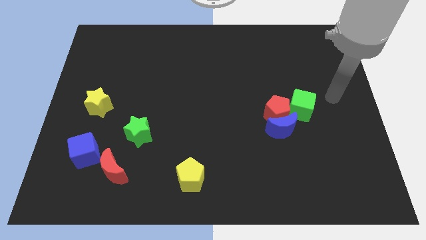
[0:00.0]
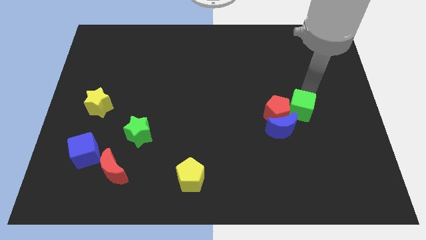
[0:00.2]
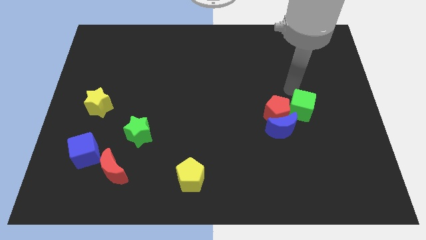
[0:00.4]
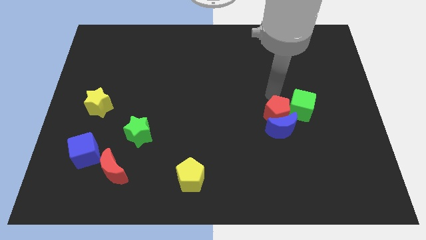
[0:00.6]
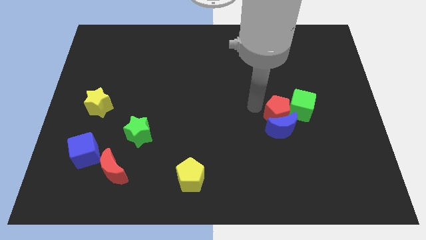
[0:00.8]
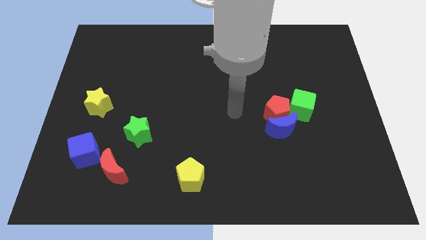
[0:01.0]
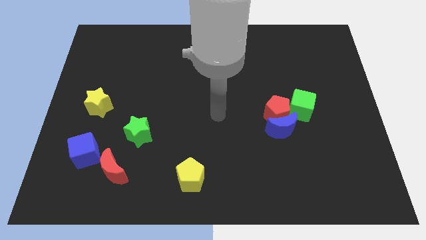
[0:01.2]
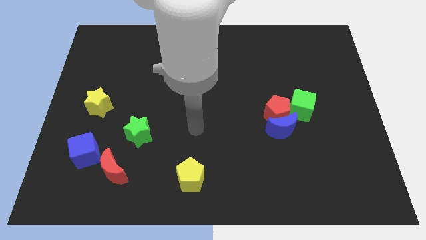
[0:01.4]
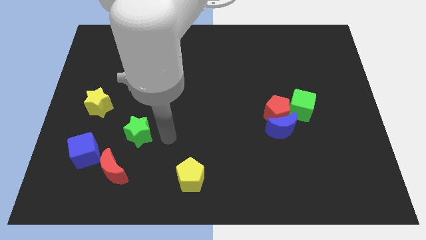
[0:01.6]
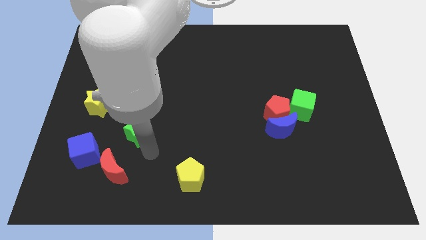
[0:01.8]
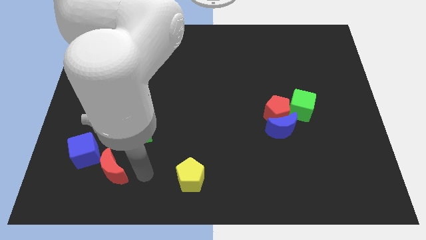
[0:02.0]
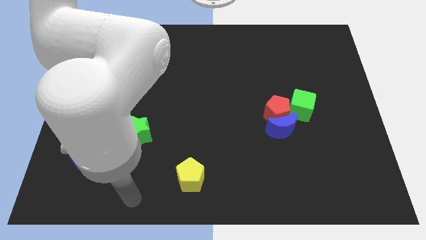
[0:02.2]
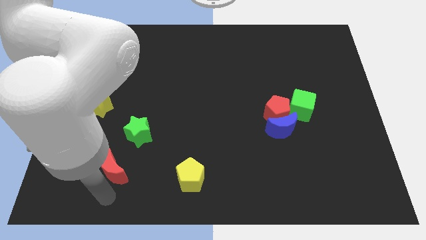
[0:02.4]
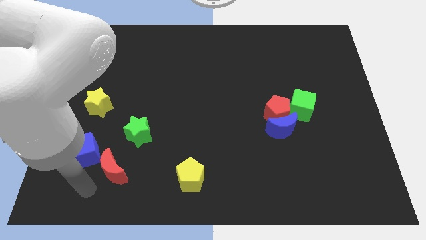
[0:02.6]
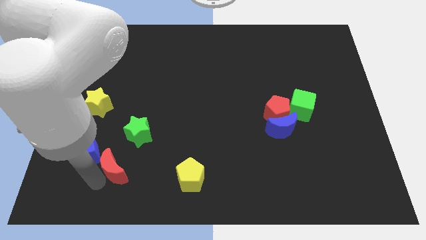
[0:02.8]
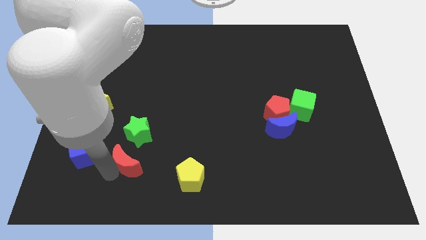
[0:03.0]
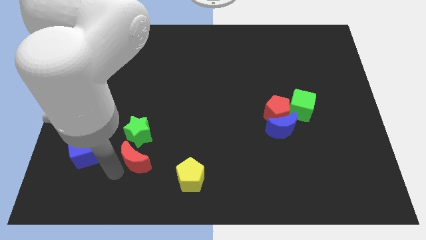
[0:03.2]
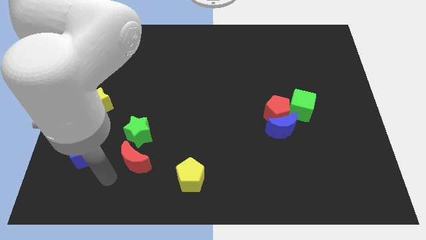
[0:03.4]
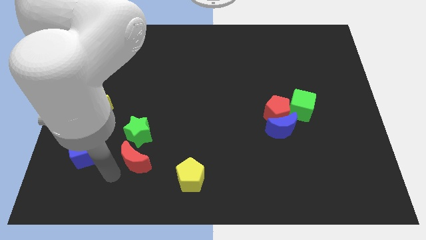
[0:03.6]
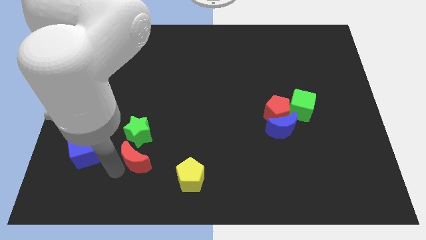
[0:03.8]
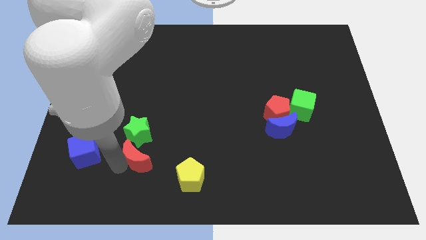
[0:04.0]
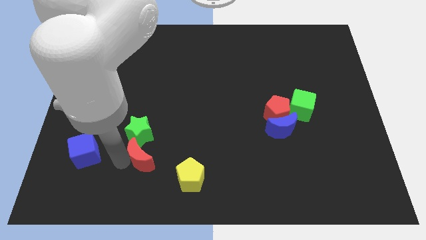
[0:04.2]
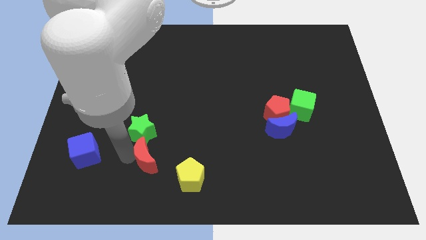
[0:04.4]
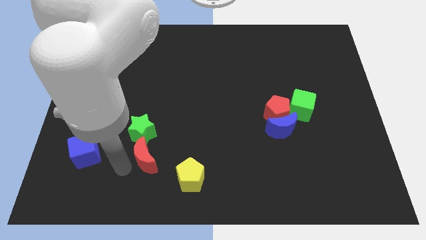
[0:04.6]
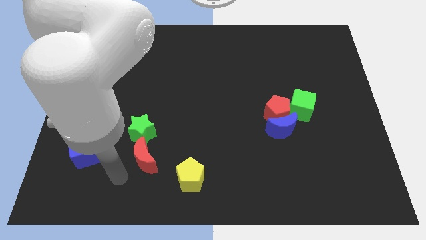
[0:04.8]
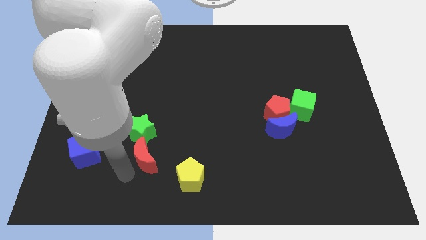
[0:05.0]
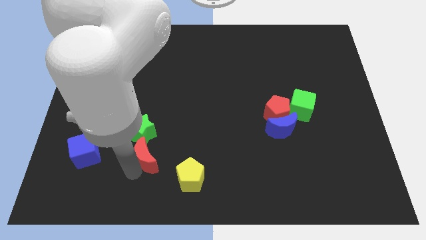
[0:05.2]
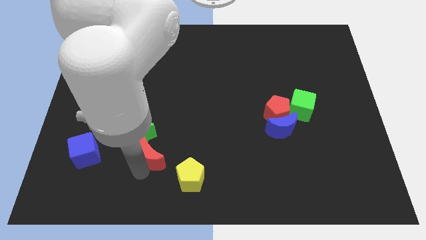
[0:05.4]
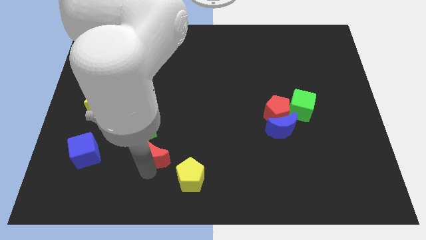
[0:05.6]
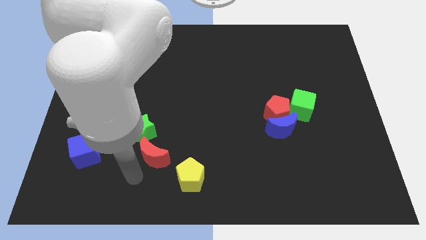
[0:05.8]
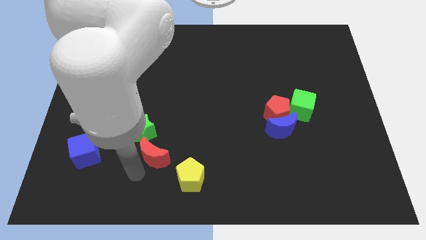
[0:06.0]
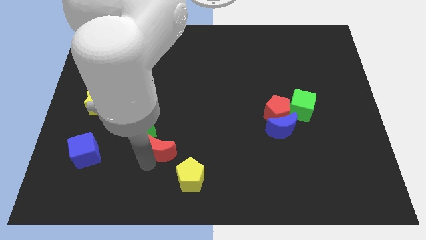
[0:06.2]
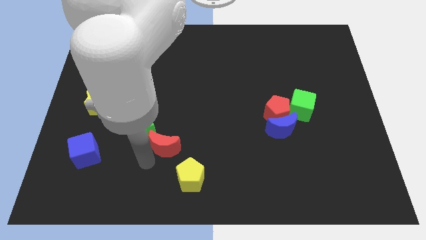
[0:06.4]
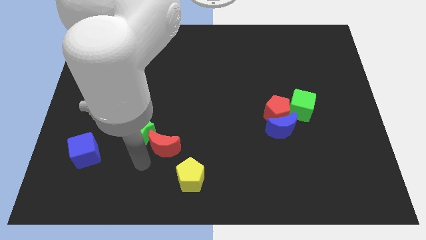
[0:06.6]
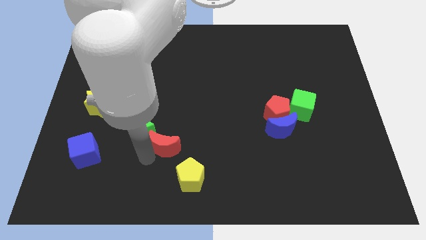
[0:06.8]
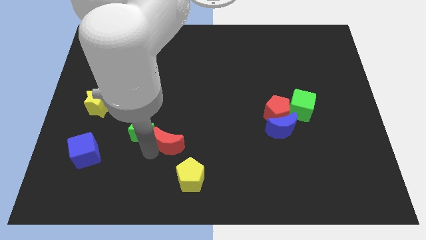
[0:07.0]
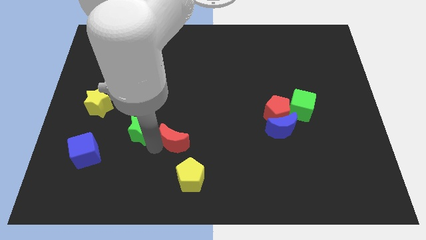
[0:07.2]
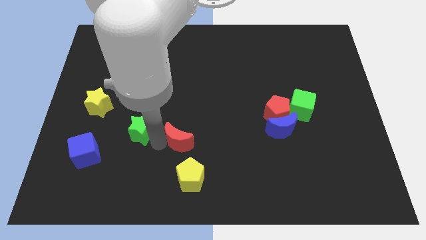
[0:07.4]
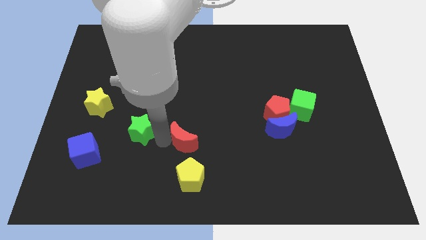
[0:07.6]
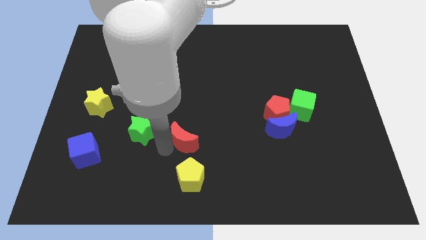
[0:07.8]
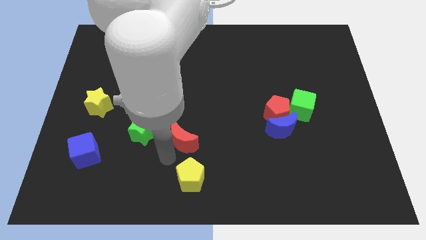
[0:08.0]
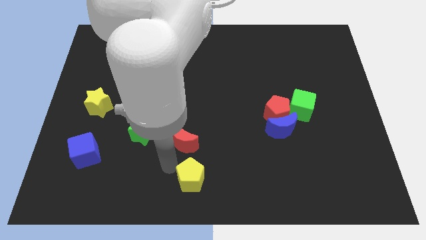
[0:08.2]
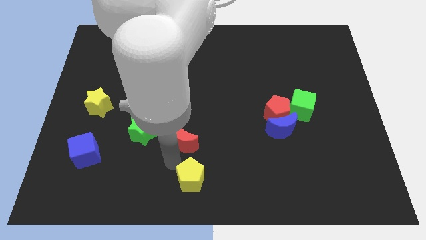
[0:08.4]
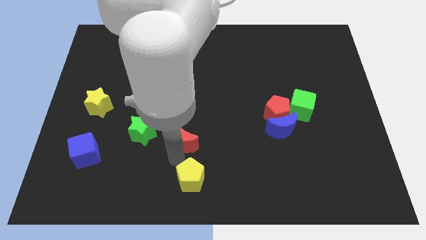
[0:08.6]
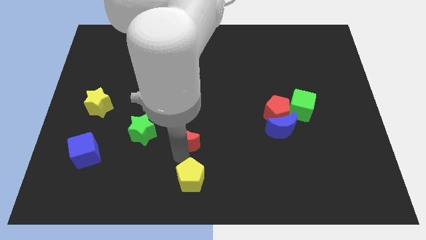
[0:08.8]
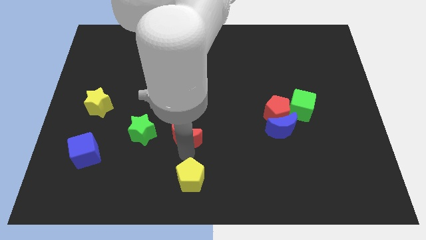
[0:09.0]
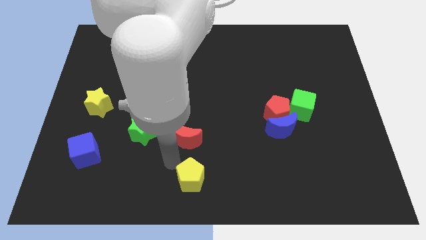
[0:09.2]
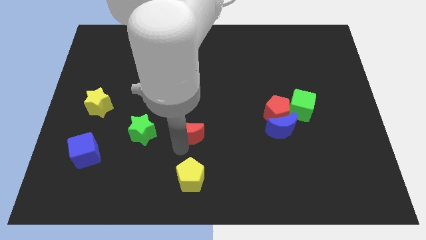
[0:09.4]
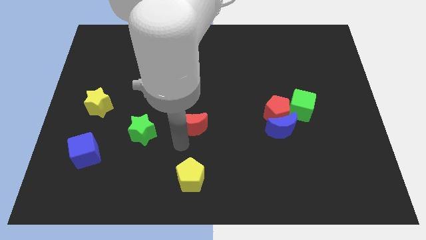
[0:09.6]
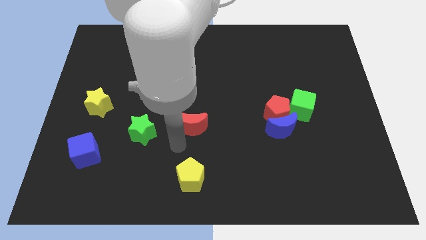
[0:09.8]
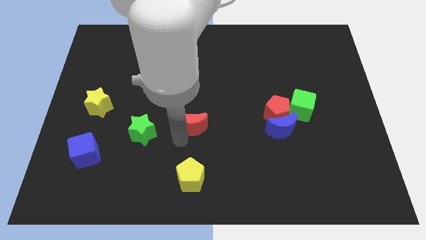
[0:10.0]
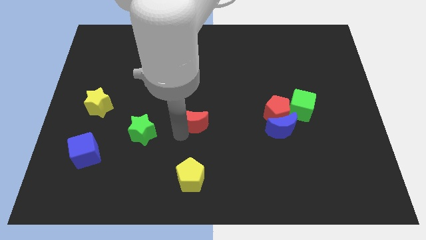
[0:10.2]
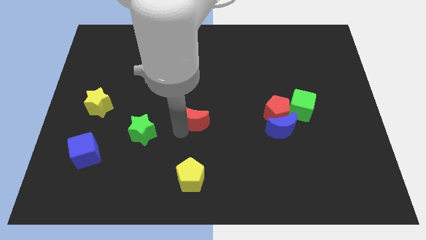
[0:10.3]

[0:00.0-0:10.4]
push the red moon diagonally up and to the right

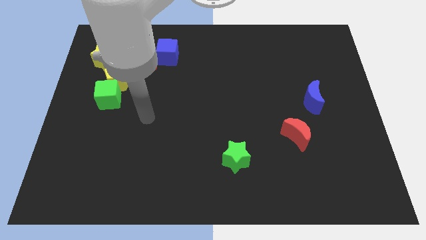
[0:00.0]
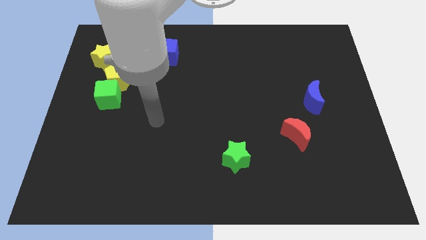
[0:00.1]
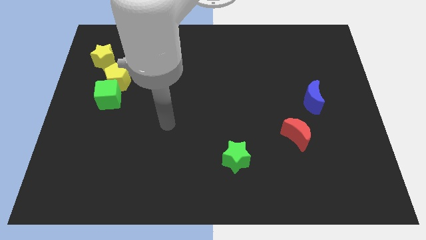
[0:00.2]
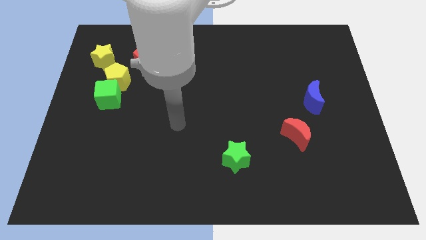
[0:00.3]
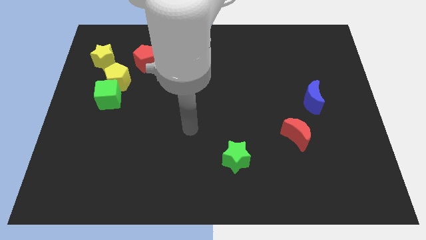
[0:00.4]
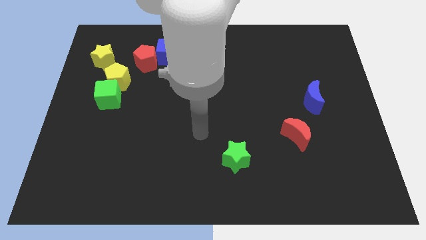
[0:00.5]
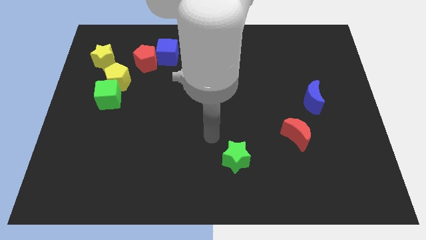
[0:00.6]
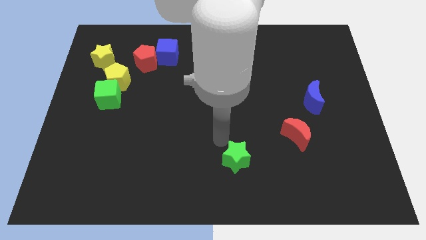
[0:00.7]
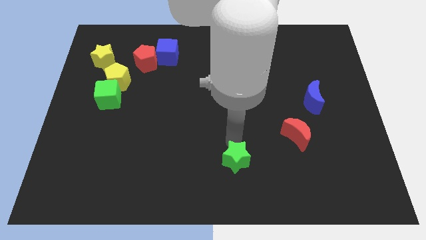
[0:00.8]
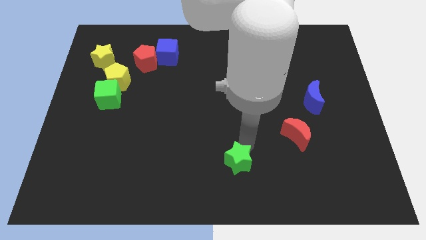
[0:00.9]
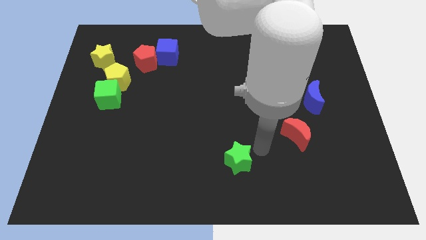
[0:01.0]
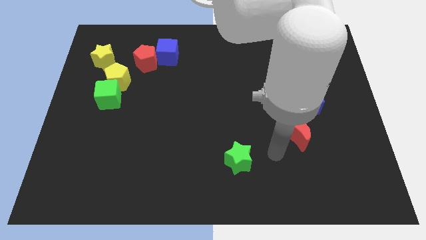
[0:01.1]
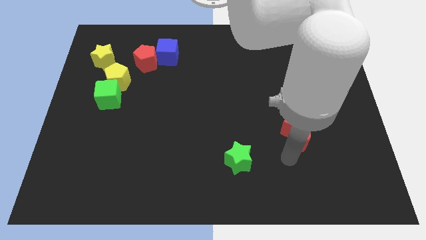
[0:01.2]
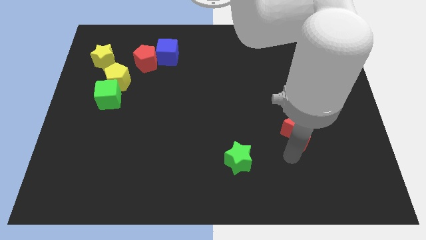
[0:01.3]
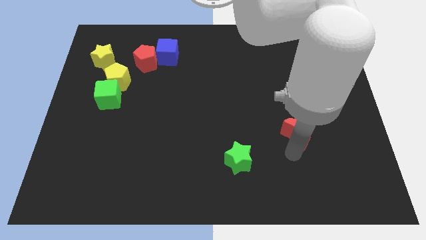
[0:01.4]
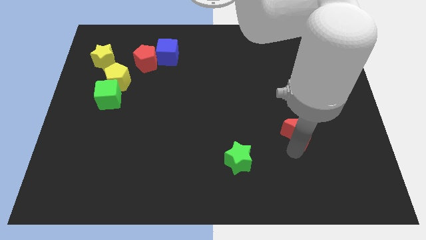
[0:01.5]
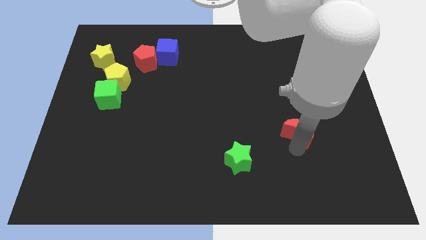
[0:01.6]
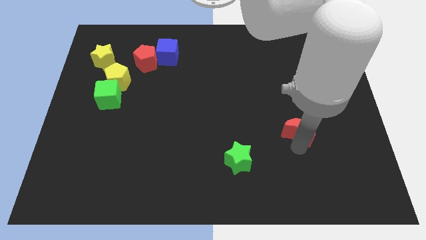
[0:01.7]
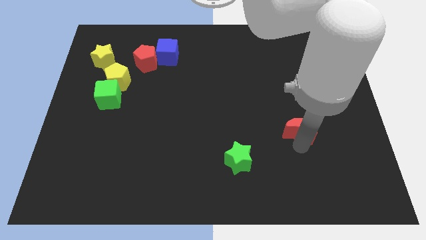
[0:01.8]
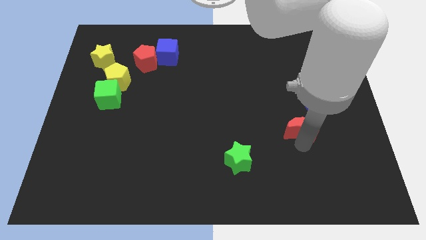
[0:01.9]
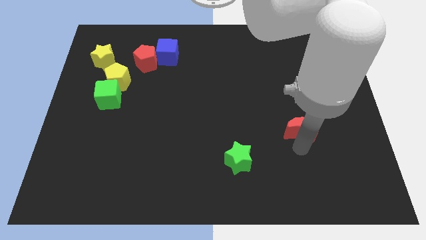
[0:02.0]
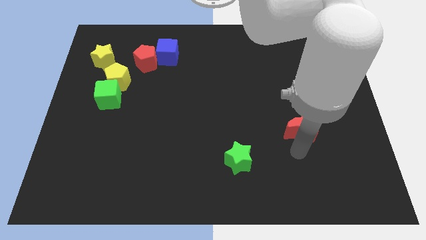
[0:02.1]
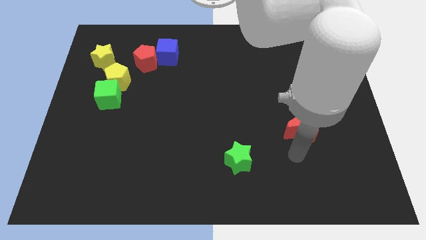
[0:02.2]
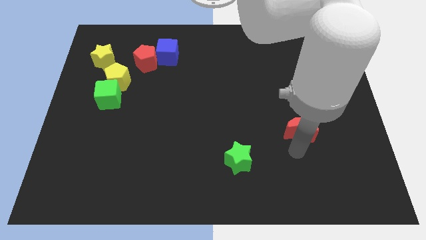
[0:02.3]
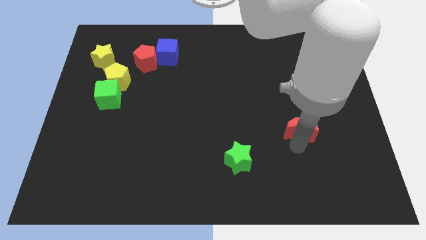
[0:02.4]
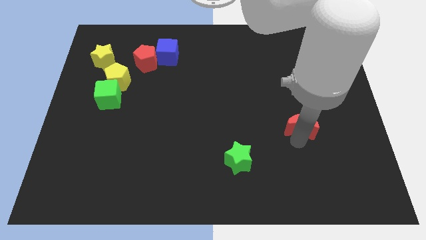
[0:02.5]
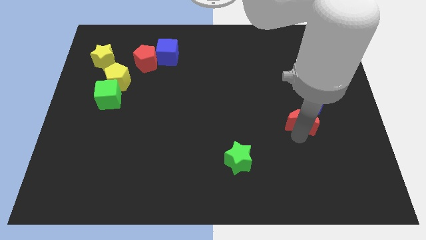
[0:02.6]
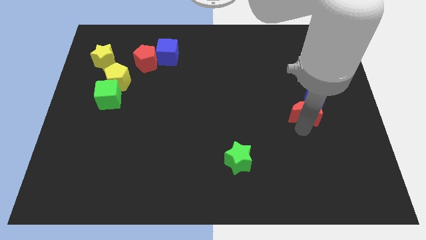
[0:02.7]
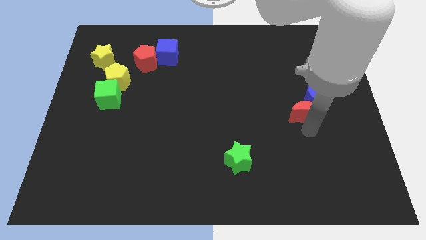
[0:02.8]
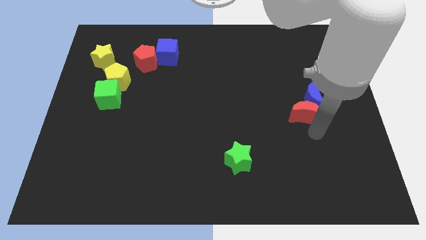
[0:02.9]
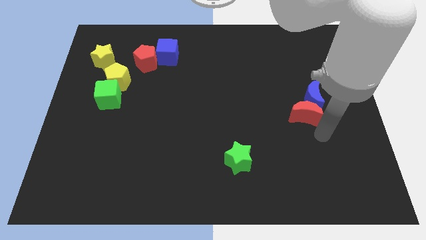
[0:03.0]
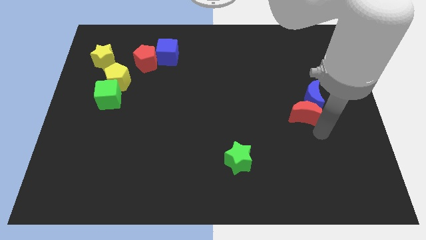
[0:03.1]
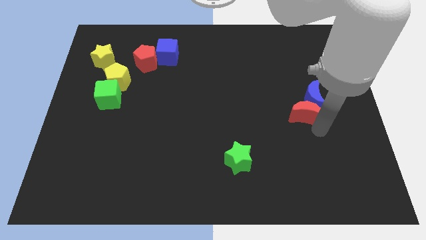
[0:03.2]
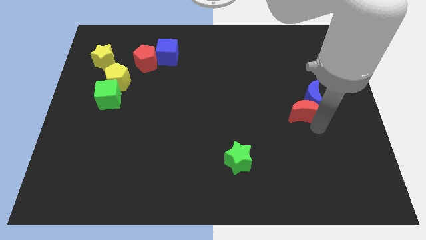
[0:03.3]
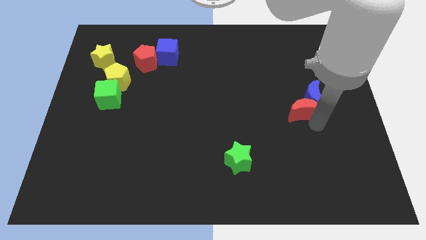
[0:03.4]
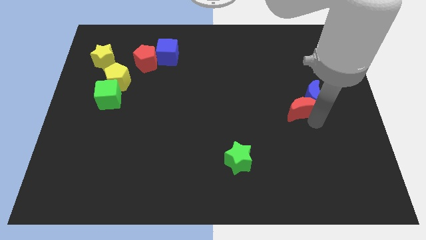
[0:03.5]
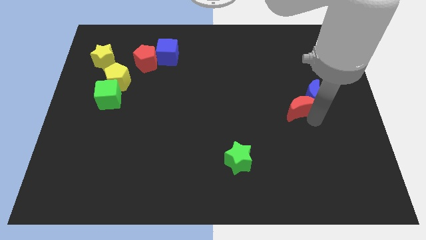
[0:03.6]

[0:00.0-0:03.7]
push the red moon a little upwards
